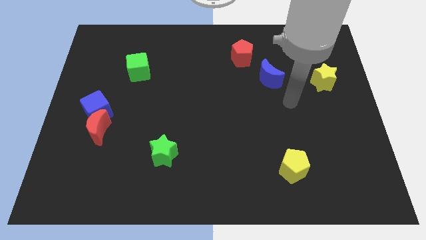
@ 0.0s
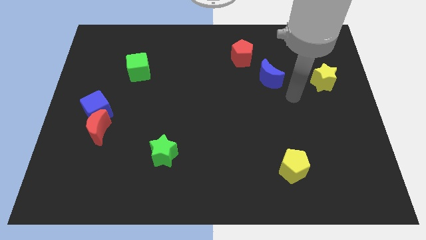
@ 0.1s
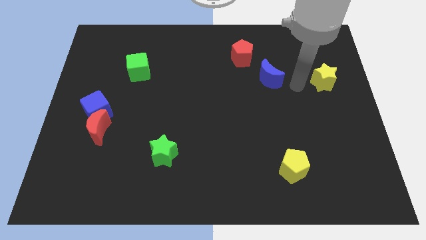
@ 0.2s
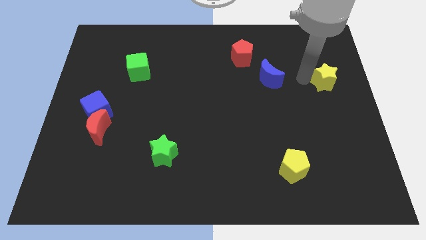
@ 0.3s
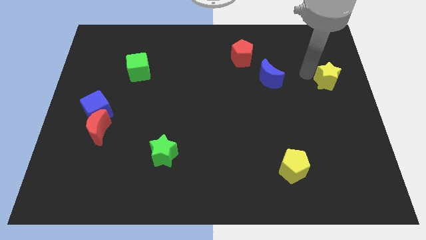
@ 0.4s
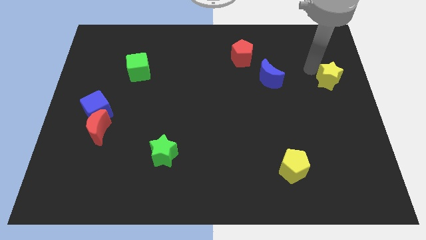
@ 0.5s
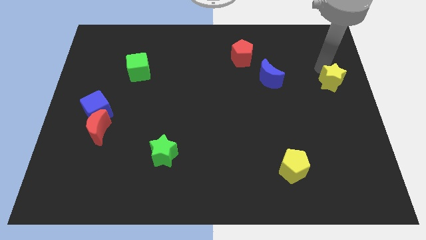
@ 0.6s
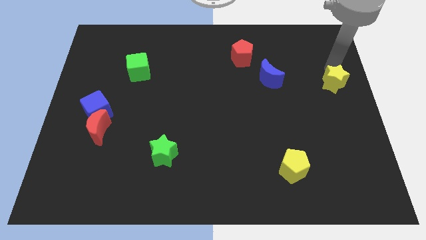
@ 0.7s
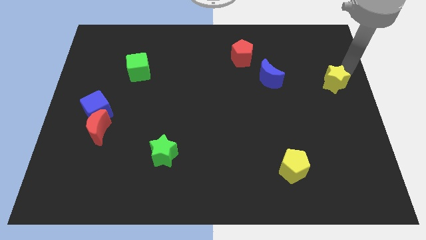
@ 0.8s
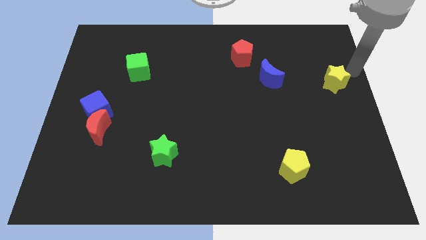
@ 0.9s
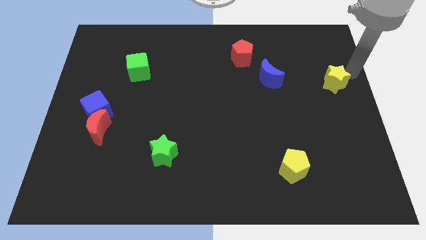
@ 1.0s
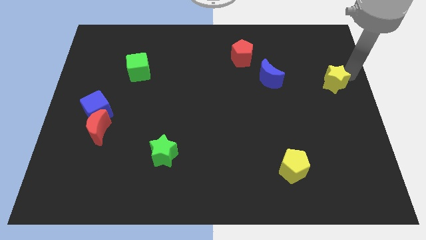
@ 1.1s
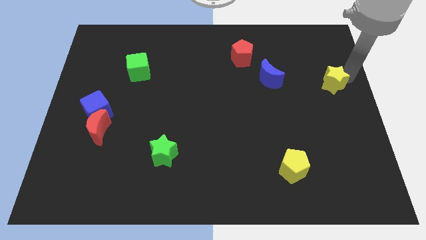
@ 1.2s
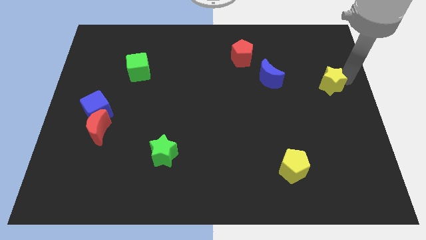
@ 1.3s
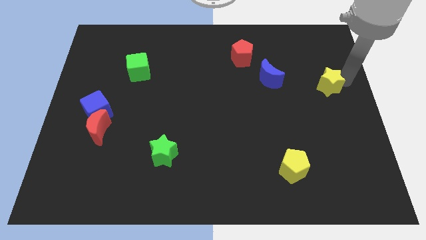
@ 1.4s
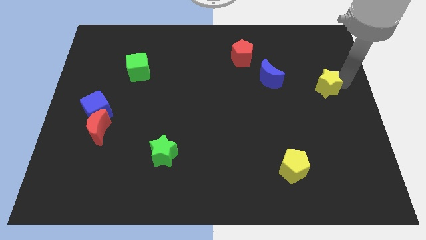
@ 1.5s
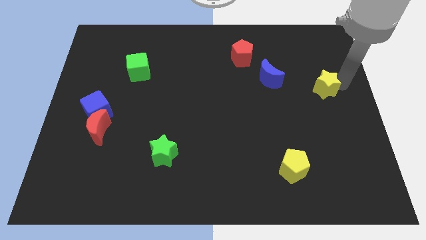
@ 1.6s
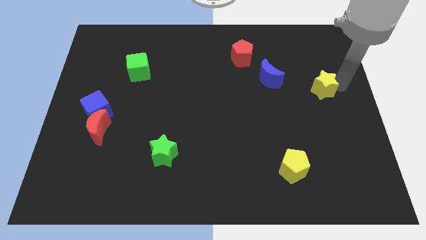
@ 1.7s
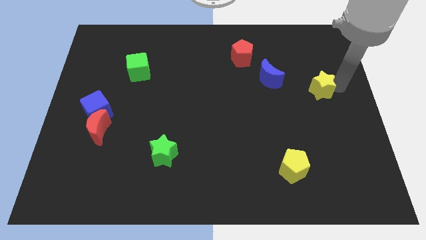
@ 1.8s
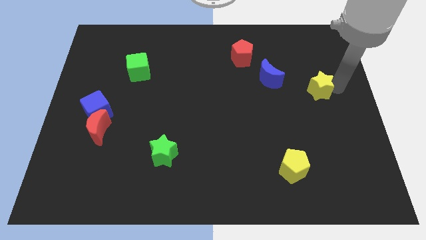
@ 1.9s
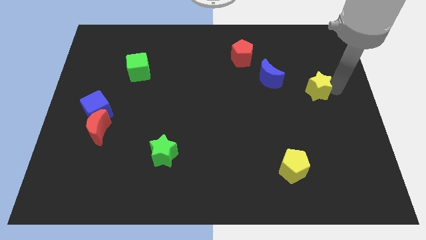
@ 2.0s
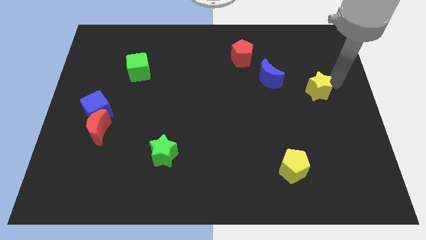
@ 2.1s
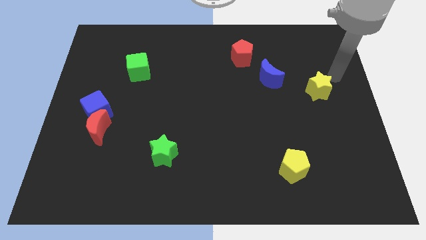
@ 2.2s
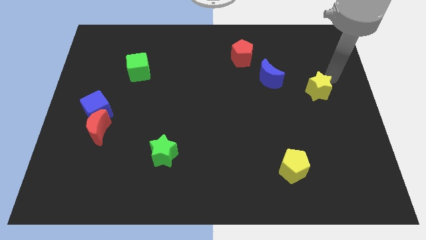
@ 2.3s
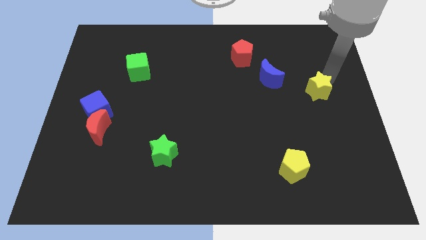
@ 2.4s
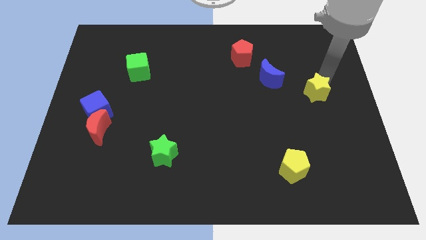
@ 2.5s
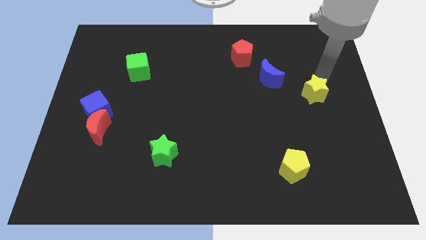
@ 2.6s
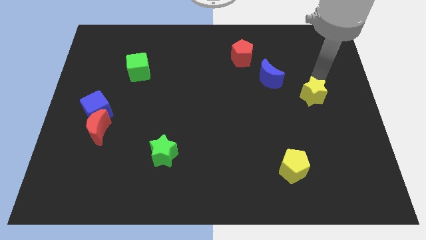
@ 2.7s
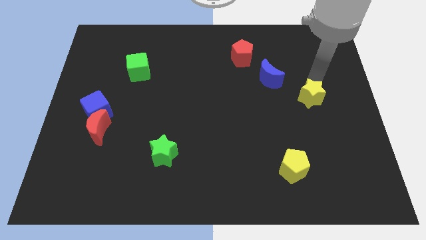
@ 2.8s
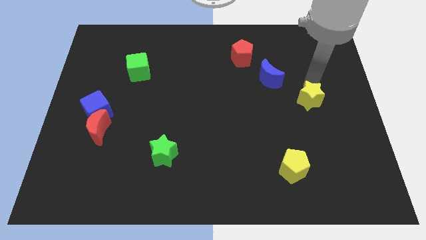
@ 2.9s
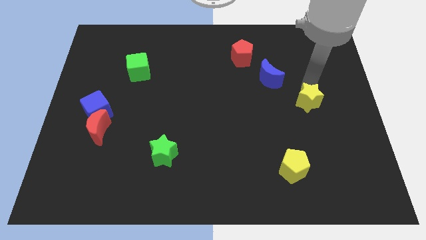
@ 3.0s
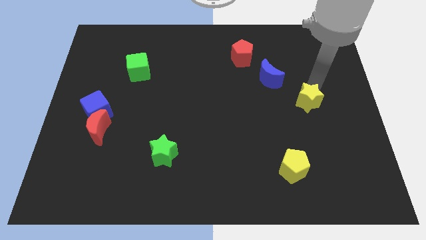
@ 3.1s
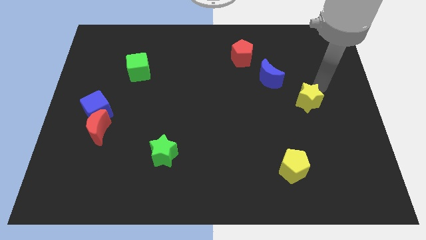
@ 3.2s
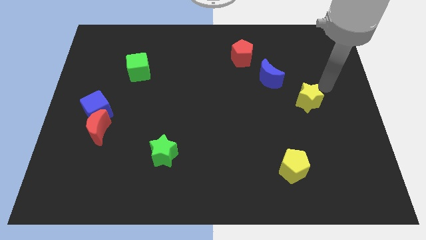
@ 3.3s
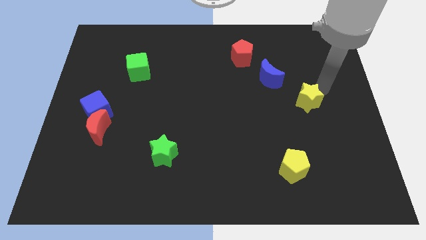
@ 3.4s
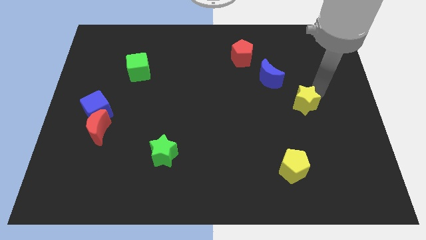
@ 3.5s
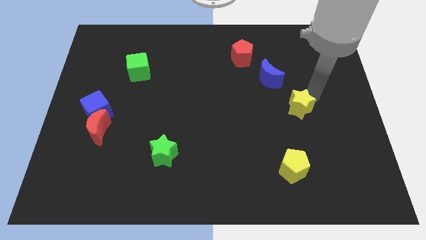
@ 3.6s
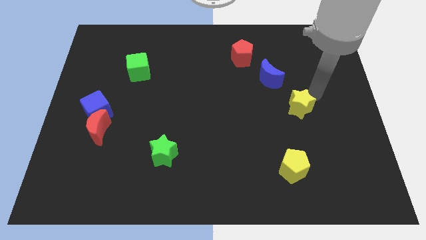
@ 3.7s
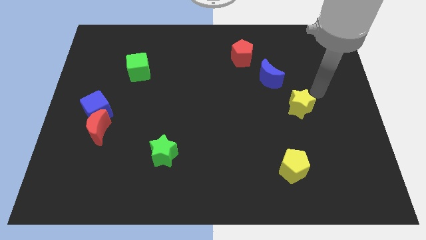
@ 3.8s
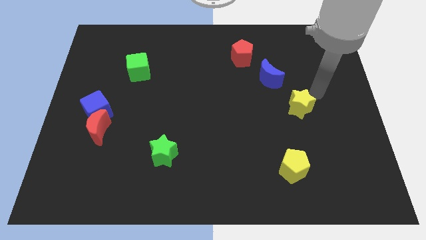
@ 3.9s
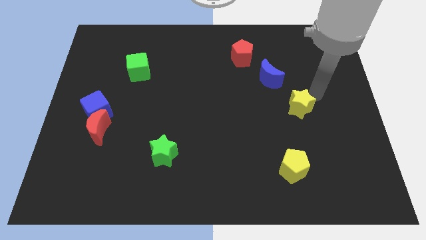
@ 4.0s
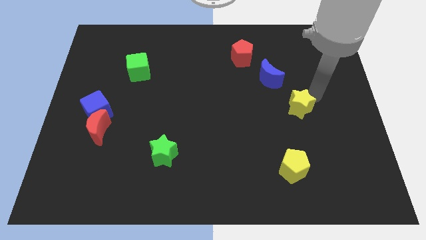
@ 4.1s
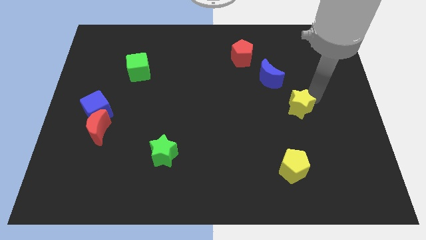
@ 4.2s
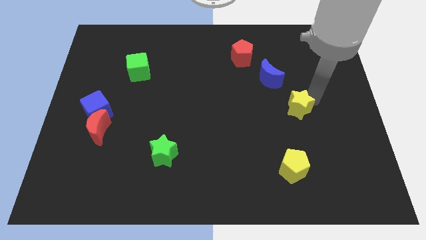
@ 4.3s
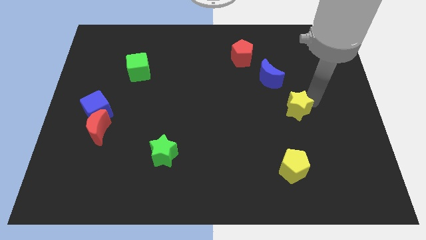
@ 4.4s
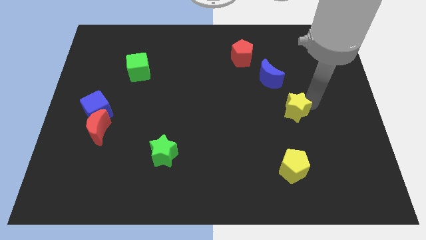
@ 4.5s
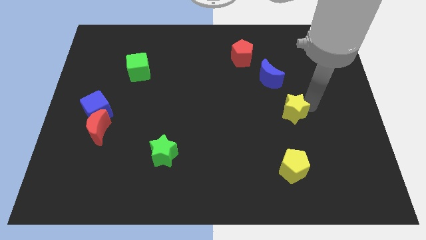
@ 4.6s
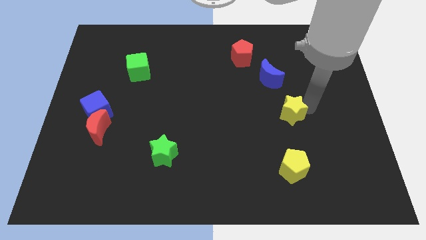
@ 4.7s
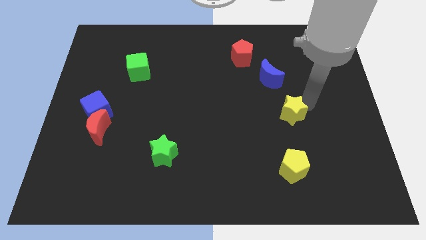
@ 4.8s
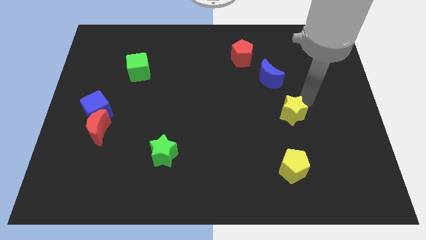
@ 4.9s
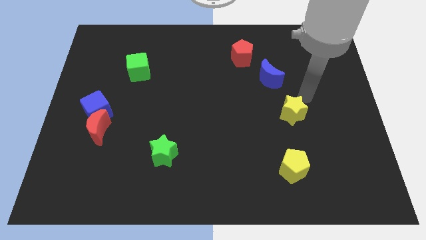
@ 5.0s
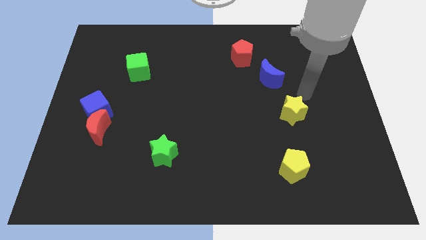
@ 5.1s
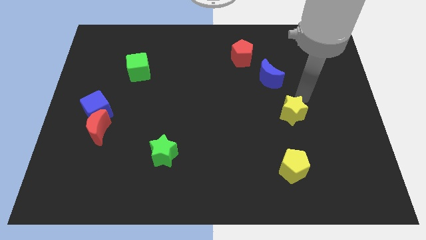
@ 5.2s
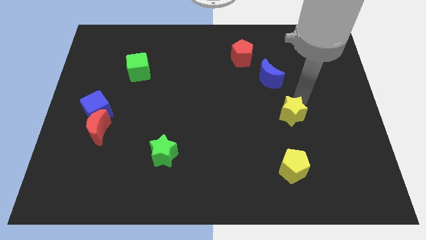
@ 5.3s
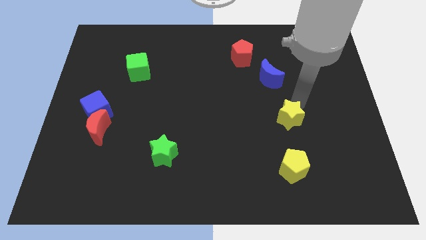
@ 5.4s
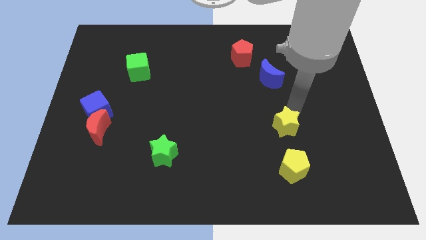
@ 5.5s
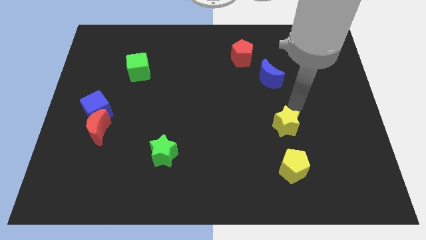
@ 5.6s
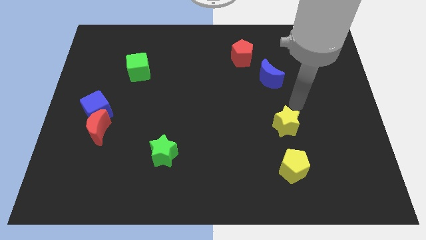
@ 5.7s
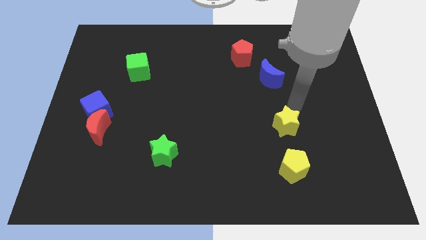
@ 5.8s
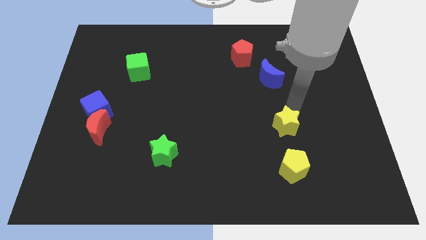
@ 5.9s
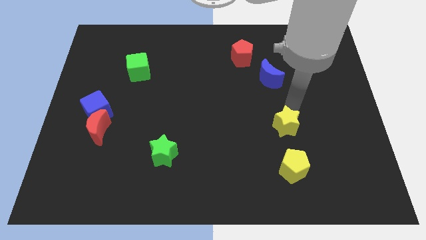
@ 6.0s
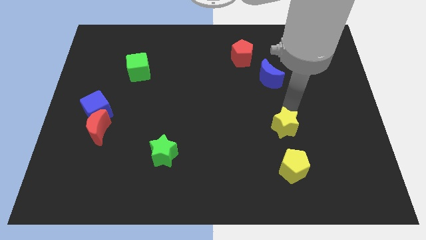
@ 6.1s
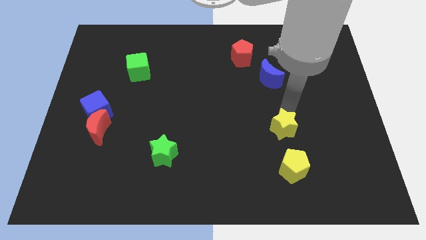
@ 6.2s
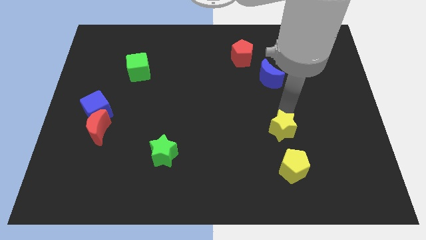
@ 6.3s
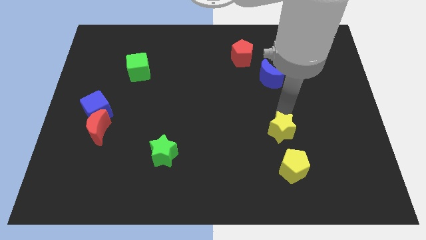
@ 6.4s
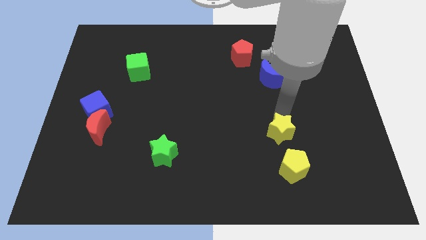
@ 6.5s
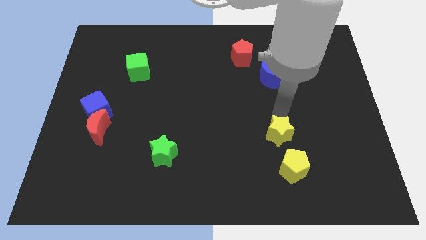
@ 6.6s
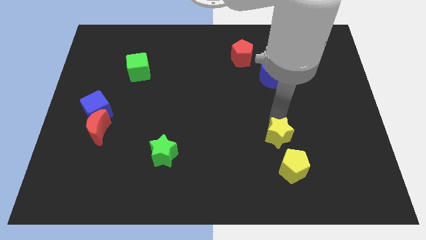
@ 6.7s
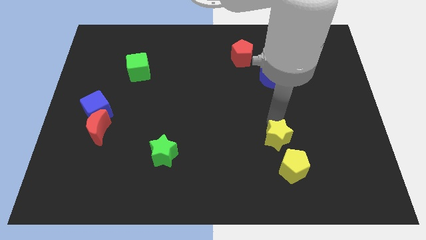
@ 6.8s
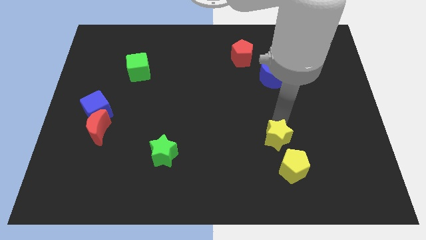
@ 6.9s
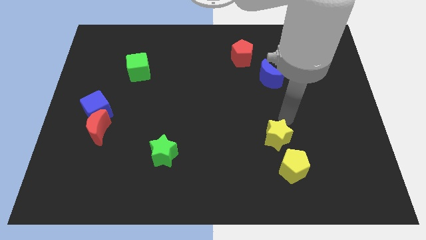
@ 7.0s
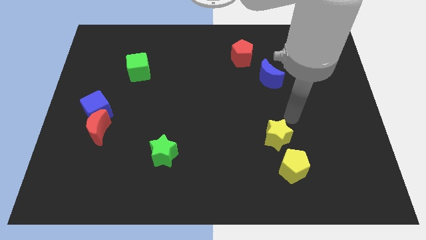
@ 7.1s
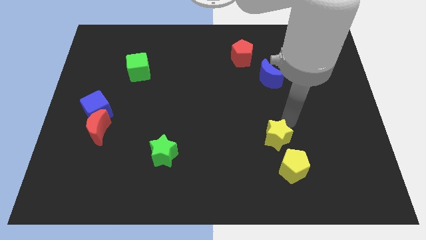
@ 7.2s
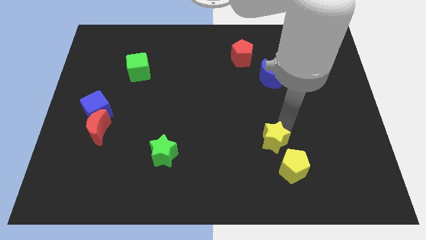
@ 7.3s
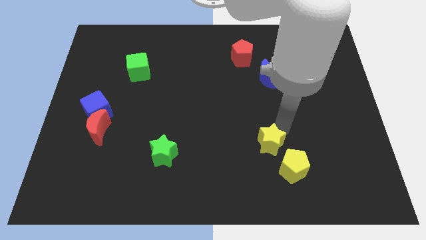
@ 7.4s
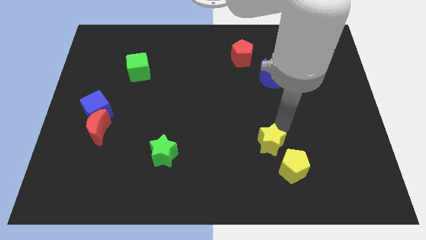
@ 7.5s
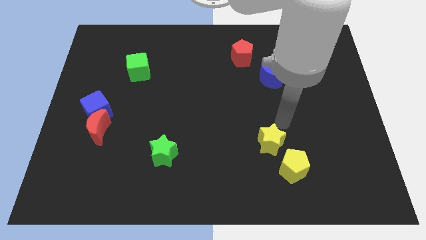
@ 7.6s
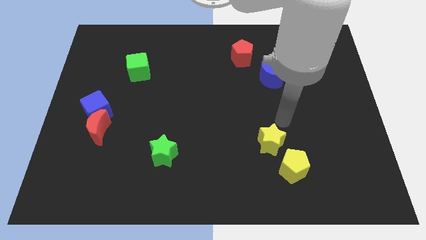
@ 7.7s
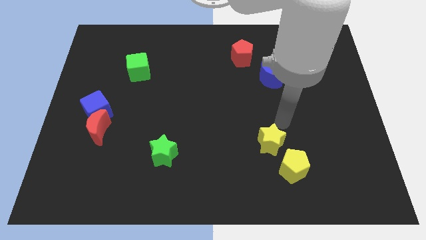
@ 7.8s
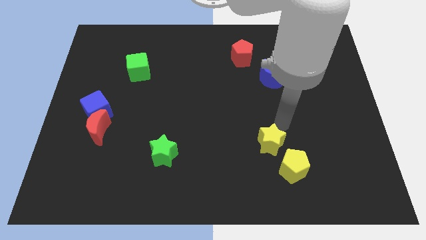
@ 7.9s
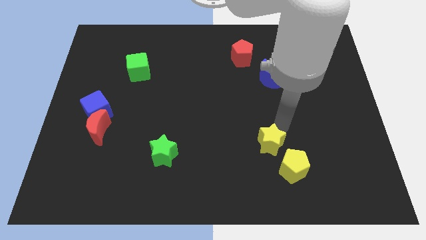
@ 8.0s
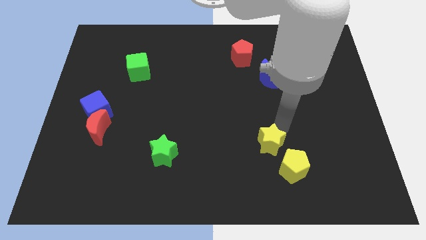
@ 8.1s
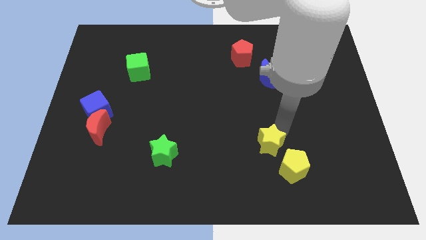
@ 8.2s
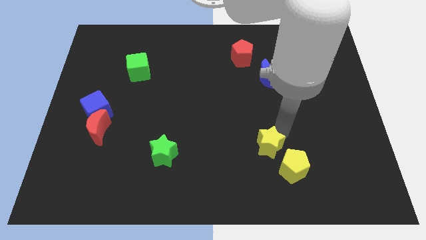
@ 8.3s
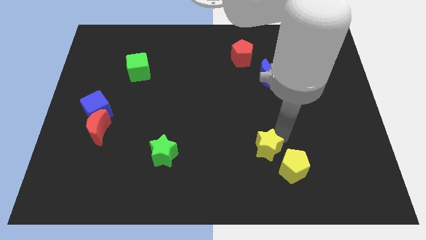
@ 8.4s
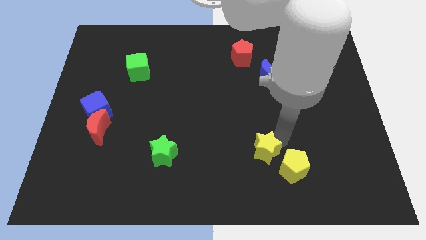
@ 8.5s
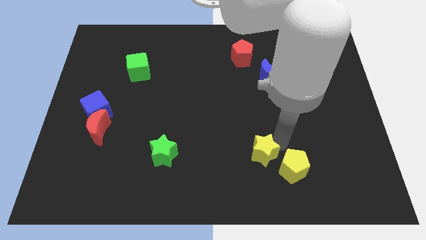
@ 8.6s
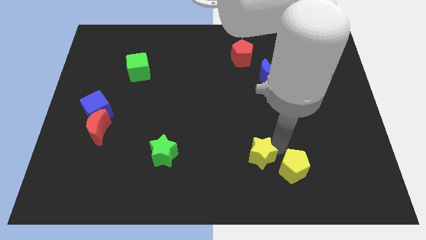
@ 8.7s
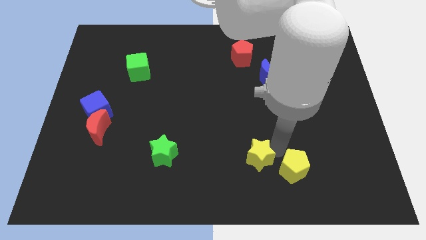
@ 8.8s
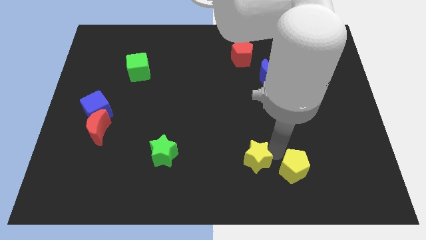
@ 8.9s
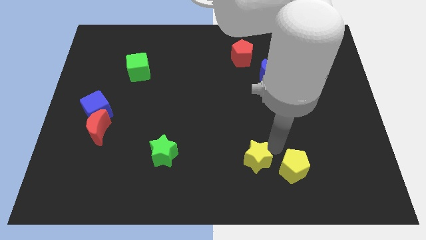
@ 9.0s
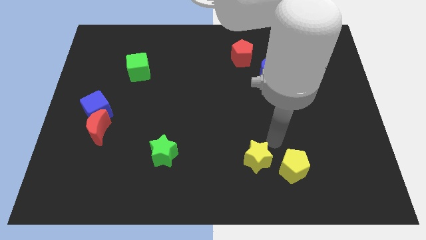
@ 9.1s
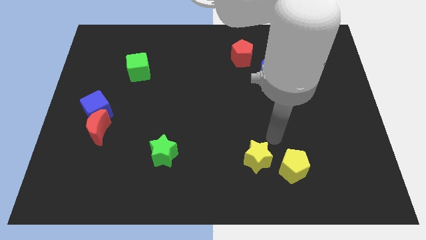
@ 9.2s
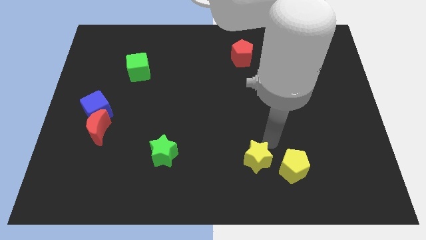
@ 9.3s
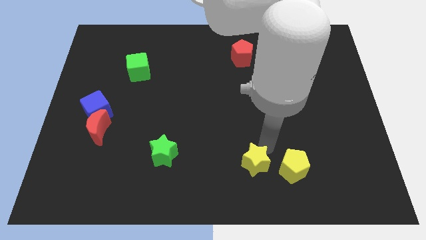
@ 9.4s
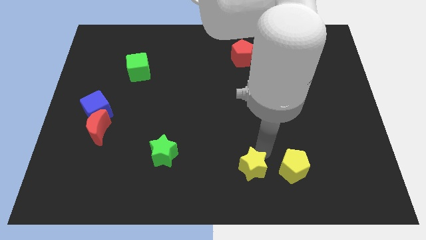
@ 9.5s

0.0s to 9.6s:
put the yellow star to the bottom side
